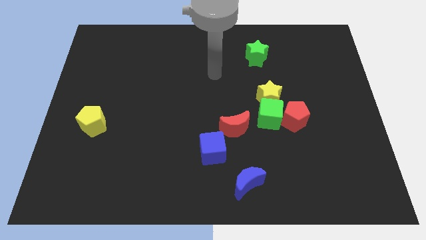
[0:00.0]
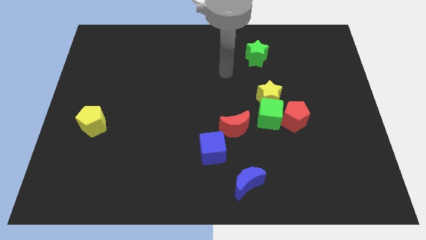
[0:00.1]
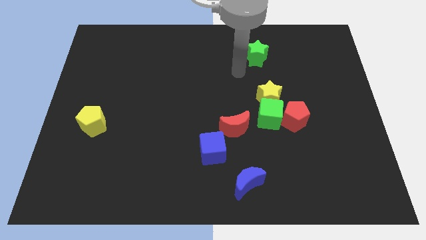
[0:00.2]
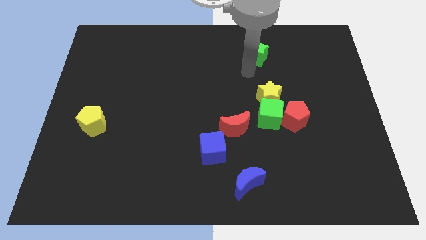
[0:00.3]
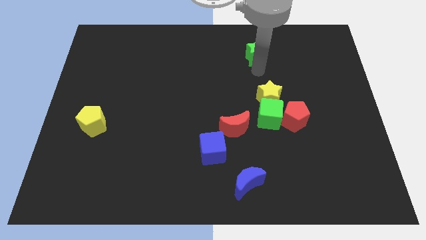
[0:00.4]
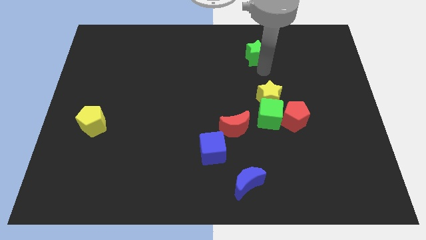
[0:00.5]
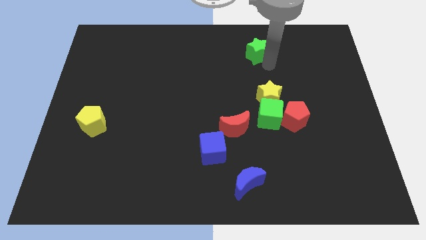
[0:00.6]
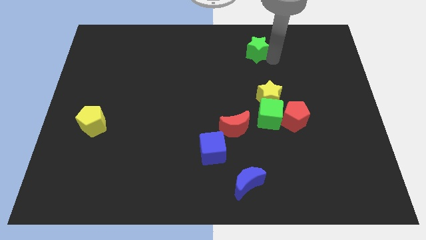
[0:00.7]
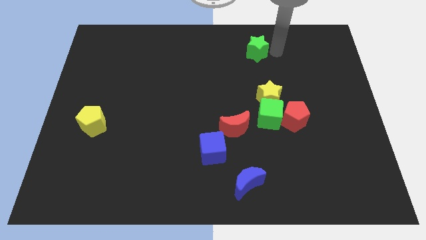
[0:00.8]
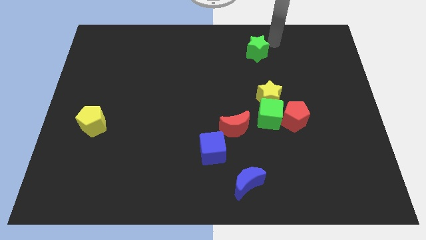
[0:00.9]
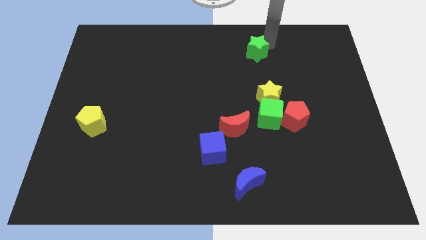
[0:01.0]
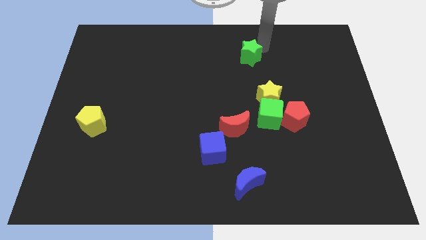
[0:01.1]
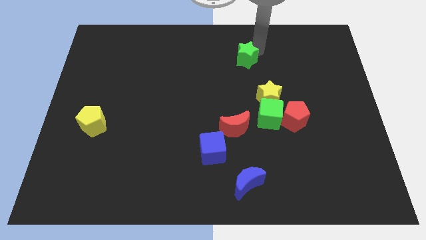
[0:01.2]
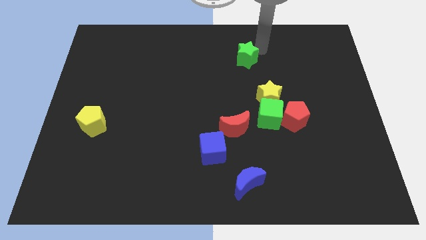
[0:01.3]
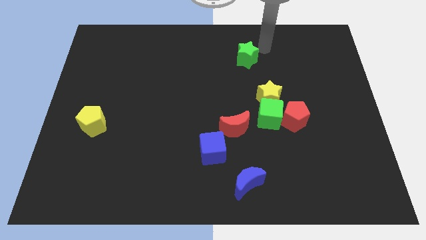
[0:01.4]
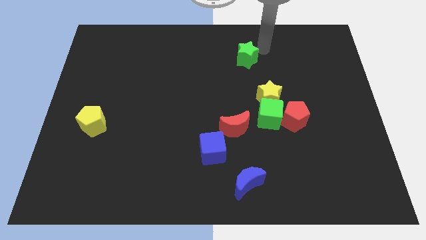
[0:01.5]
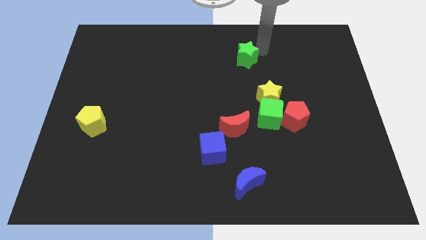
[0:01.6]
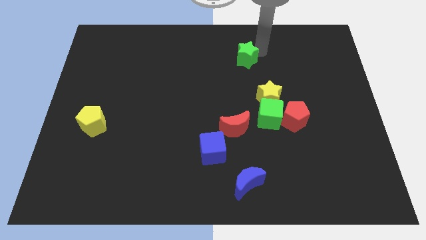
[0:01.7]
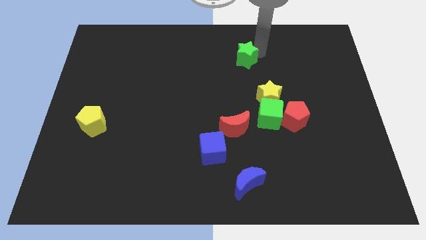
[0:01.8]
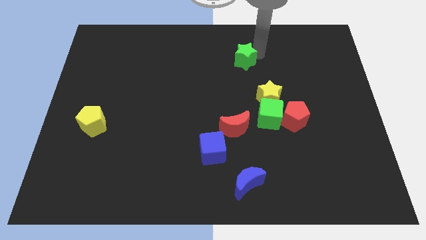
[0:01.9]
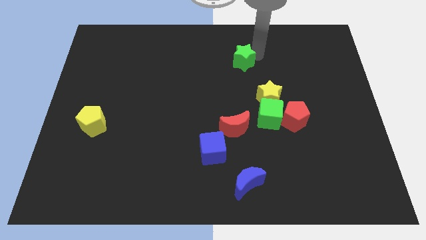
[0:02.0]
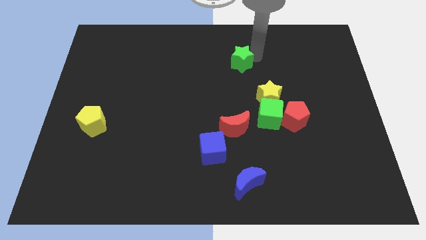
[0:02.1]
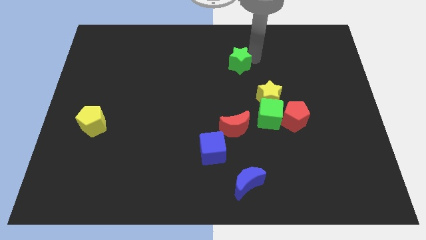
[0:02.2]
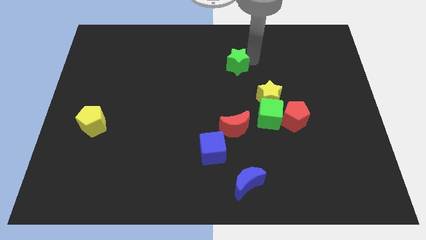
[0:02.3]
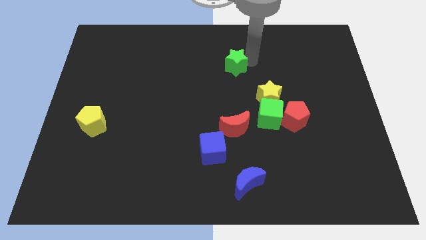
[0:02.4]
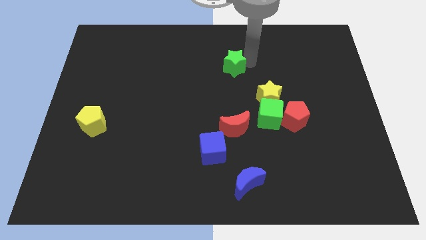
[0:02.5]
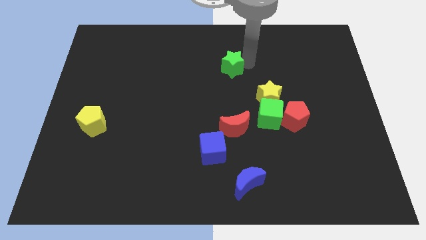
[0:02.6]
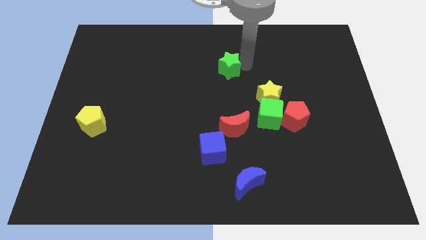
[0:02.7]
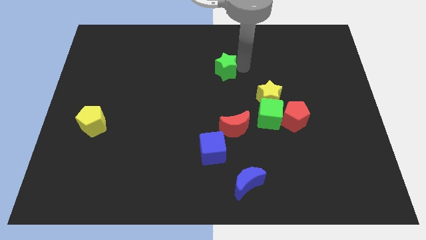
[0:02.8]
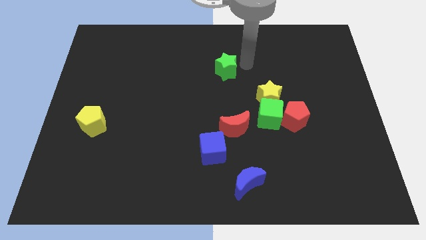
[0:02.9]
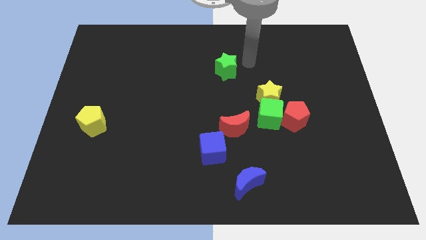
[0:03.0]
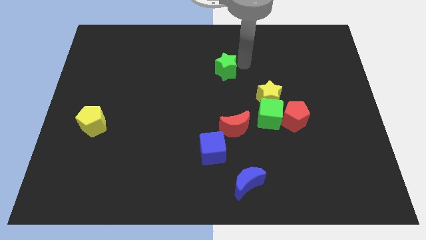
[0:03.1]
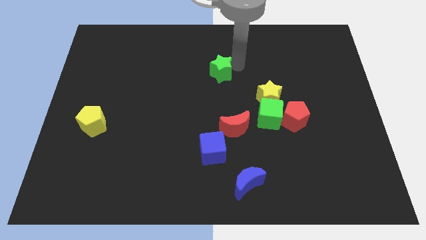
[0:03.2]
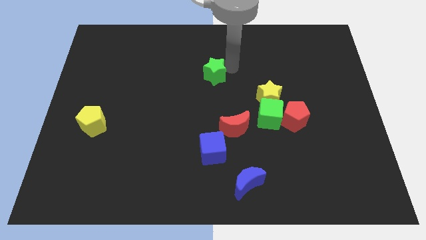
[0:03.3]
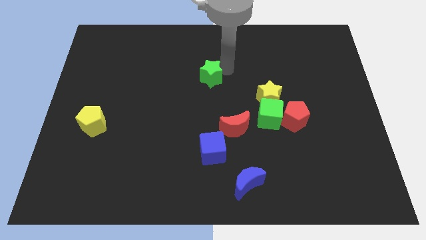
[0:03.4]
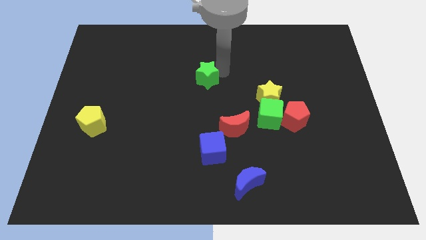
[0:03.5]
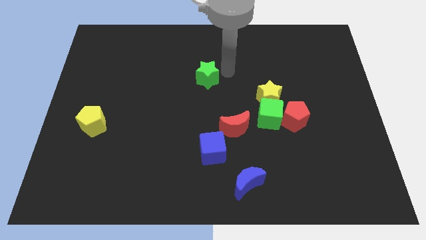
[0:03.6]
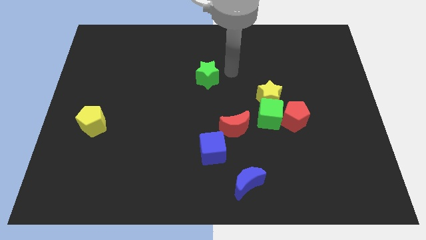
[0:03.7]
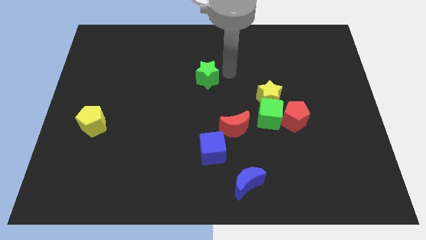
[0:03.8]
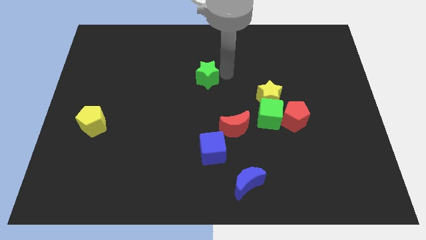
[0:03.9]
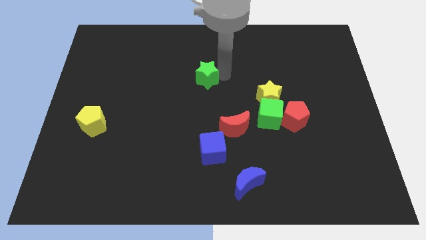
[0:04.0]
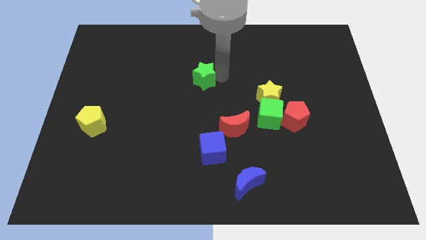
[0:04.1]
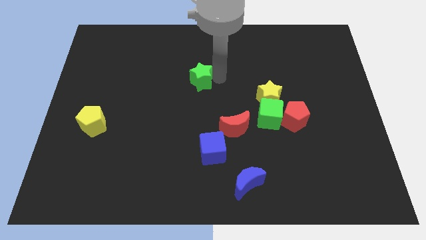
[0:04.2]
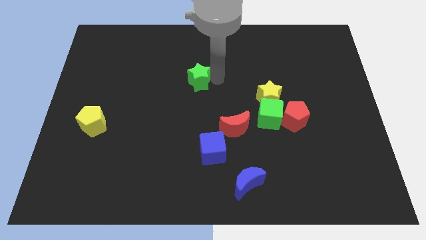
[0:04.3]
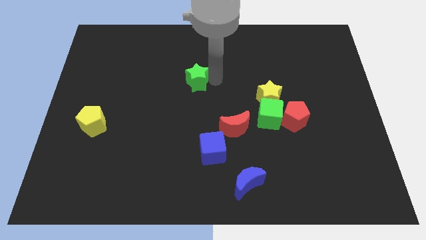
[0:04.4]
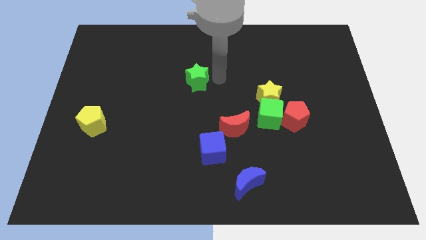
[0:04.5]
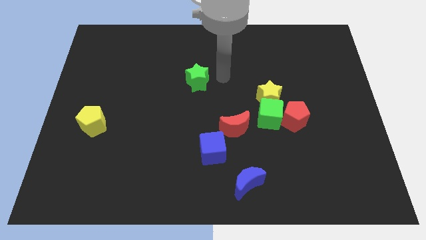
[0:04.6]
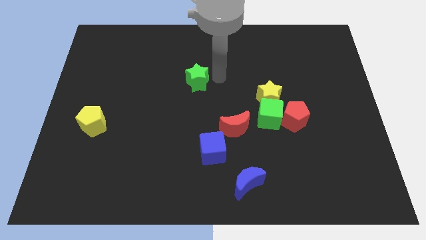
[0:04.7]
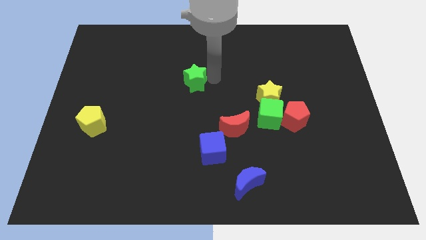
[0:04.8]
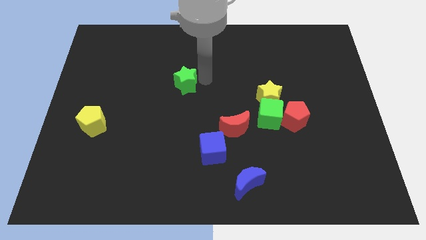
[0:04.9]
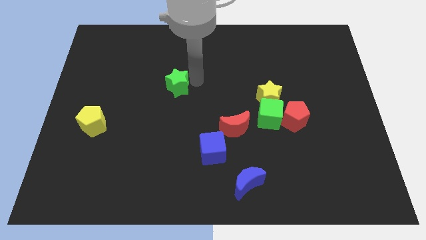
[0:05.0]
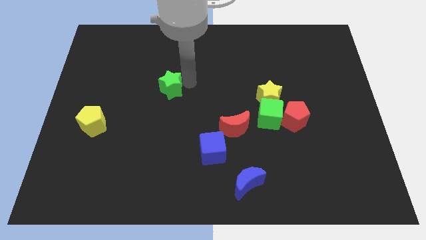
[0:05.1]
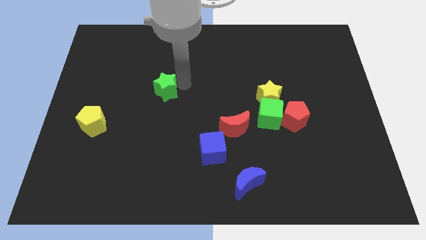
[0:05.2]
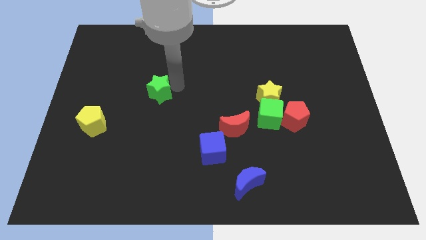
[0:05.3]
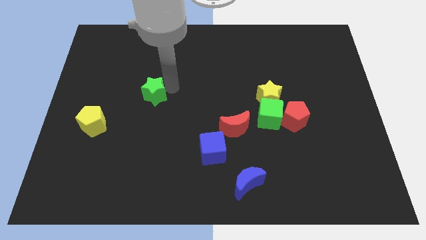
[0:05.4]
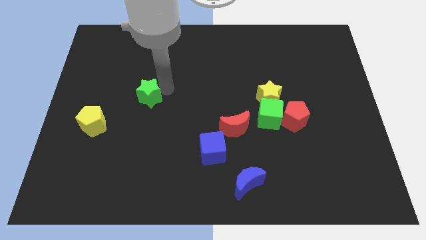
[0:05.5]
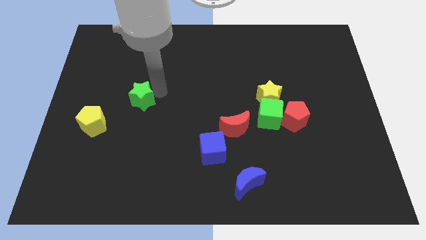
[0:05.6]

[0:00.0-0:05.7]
move the green star to the top right side of the yellow pentagon
